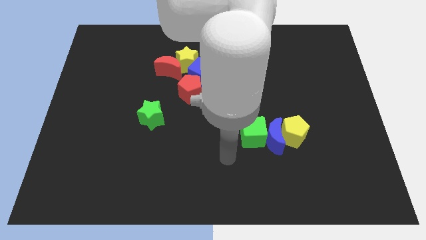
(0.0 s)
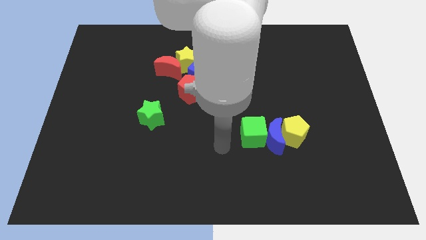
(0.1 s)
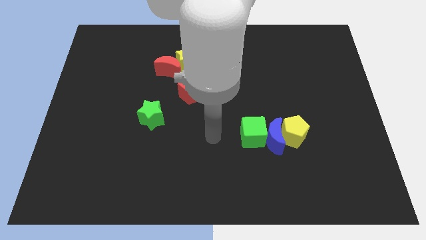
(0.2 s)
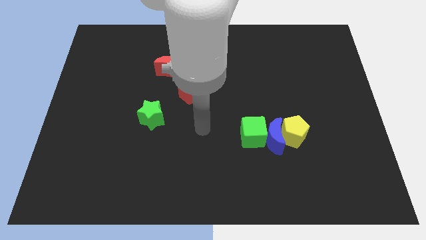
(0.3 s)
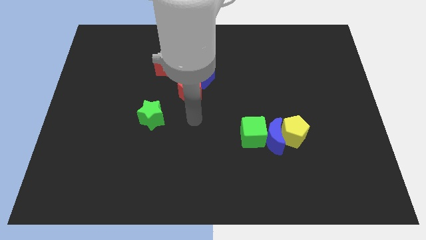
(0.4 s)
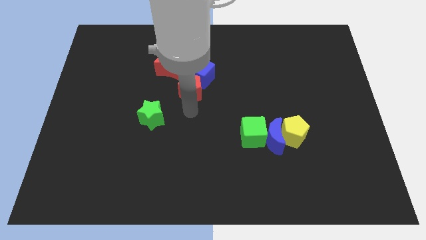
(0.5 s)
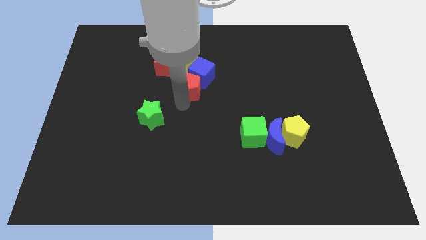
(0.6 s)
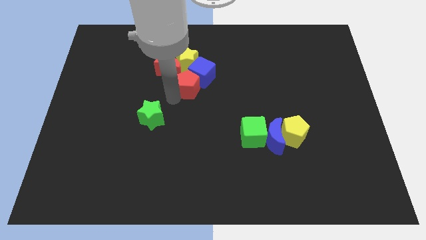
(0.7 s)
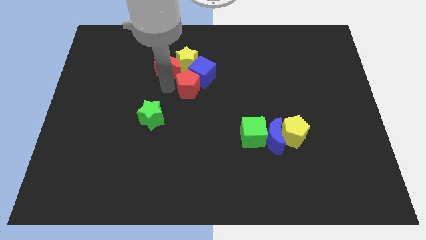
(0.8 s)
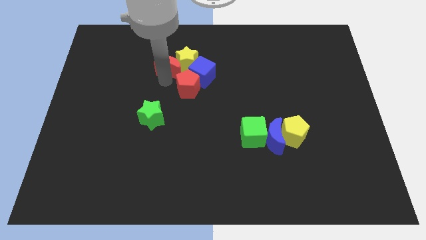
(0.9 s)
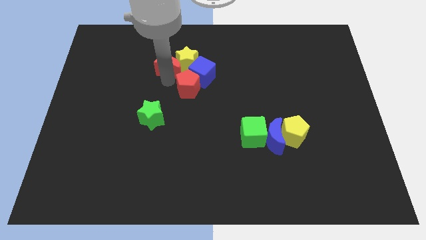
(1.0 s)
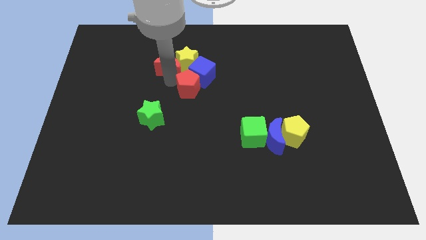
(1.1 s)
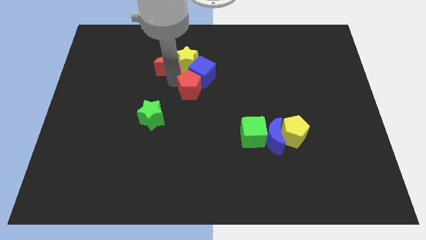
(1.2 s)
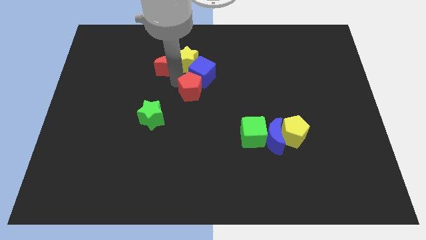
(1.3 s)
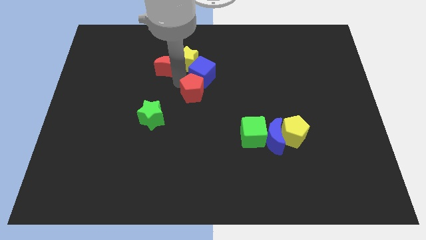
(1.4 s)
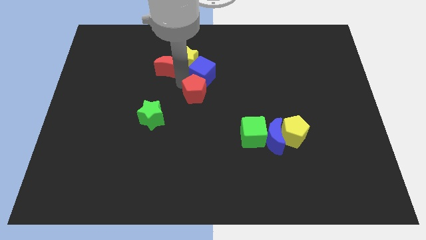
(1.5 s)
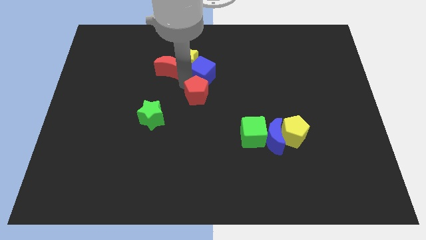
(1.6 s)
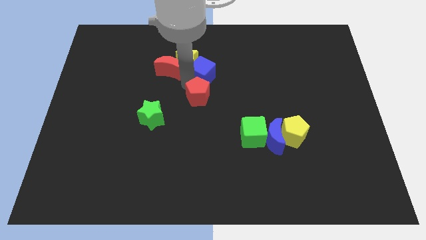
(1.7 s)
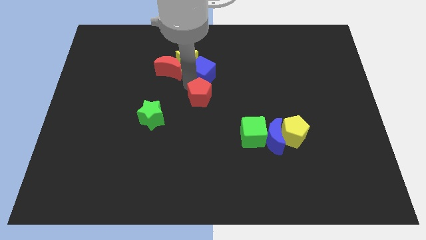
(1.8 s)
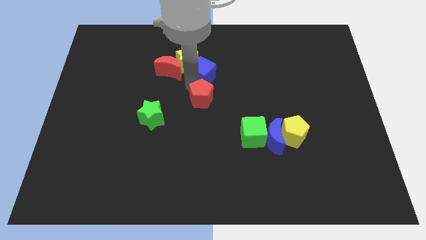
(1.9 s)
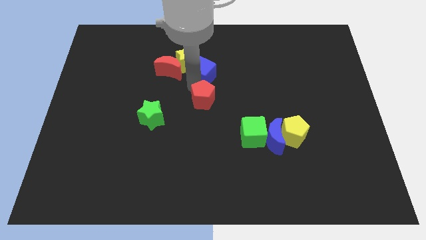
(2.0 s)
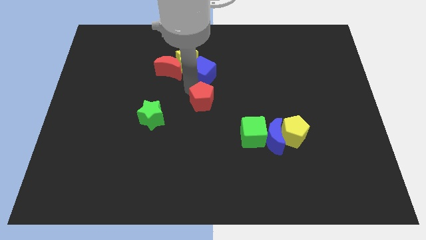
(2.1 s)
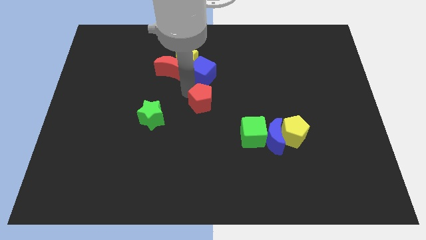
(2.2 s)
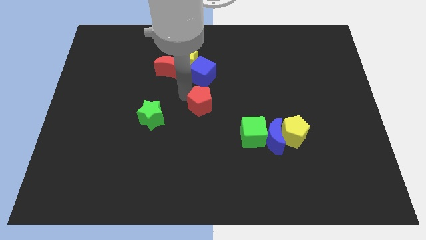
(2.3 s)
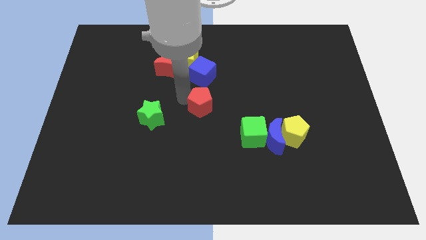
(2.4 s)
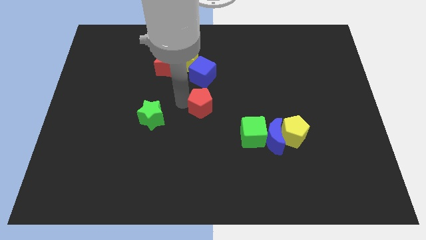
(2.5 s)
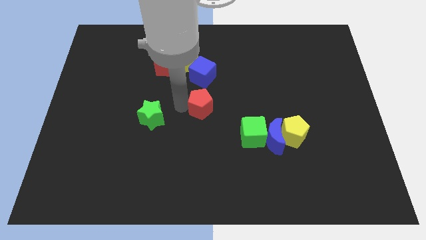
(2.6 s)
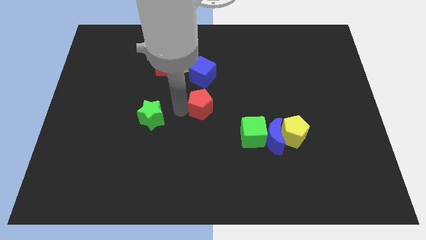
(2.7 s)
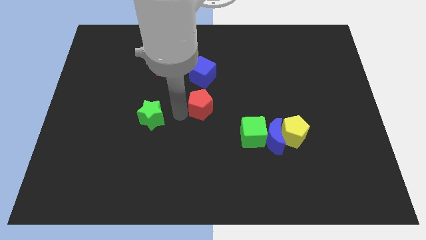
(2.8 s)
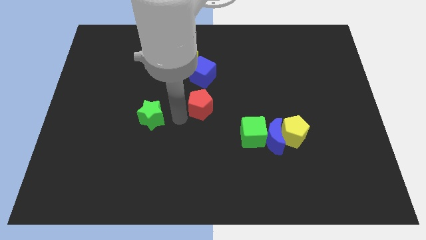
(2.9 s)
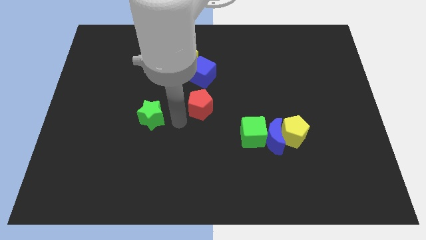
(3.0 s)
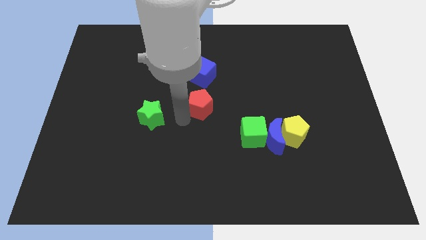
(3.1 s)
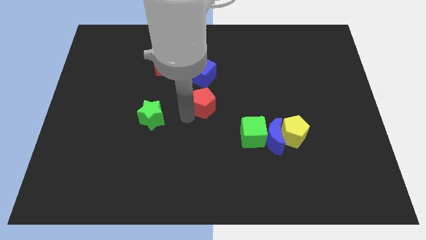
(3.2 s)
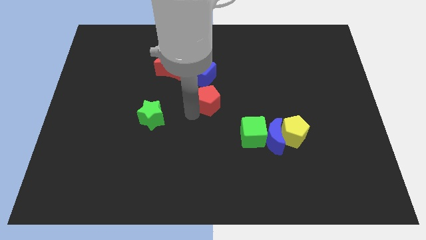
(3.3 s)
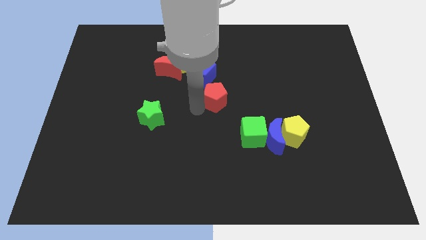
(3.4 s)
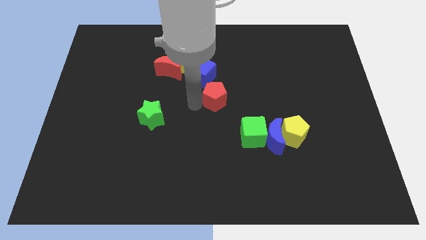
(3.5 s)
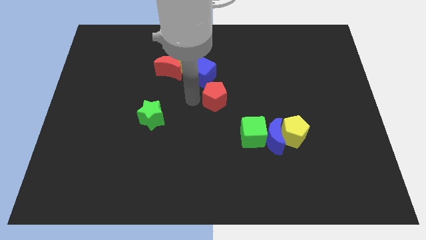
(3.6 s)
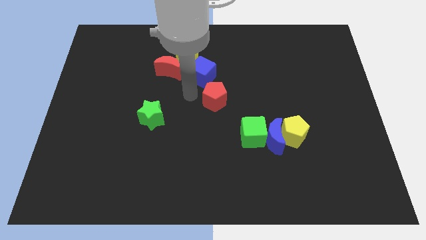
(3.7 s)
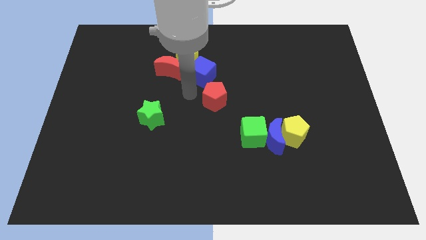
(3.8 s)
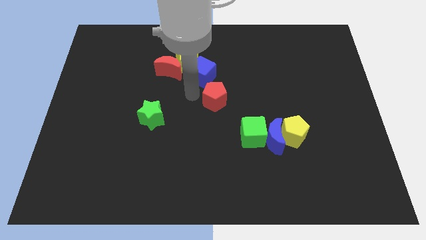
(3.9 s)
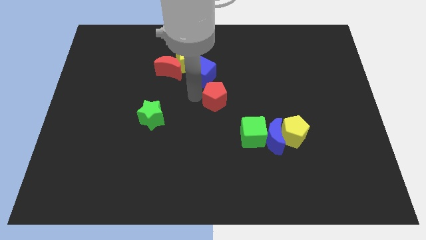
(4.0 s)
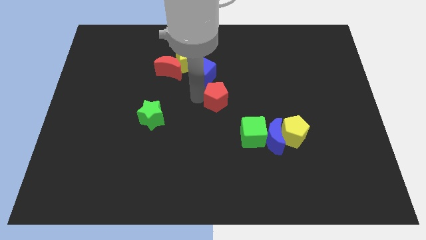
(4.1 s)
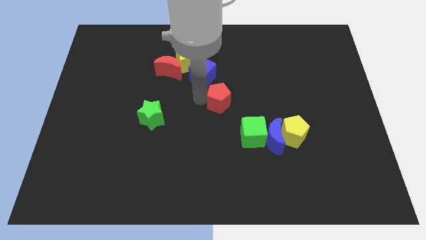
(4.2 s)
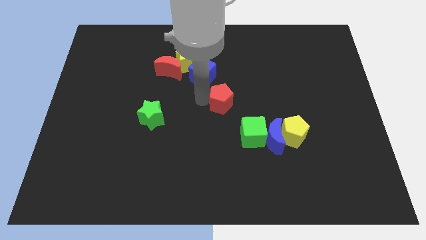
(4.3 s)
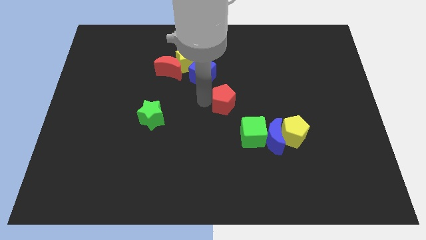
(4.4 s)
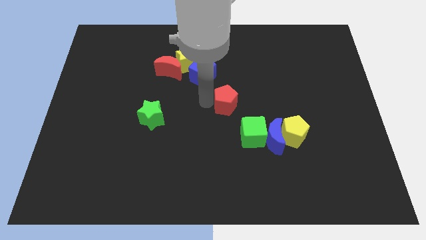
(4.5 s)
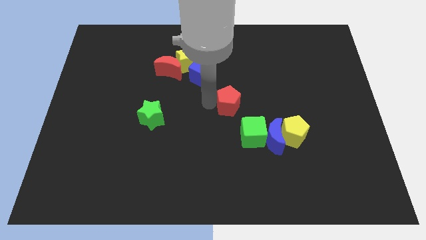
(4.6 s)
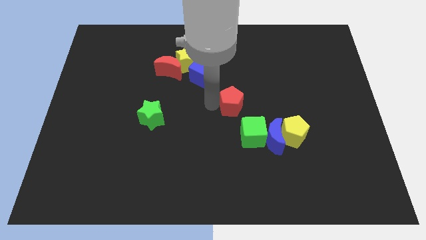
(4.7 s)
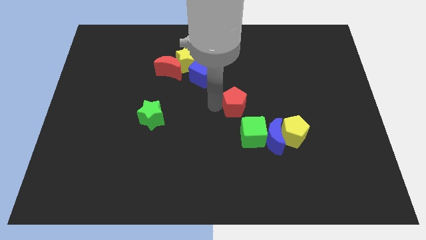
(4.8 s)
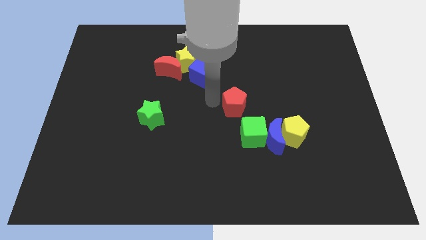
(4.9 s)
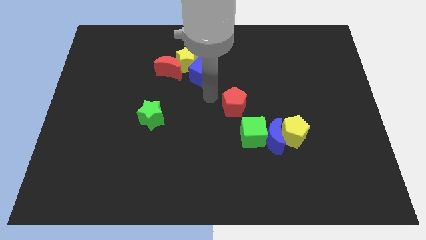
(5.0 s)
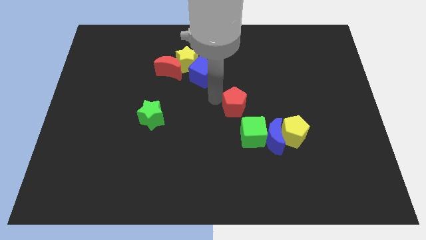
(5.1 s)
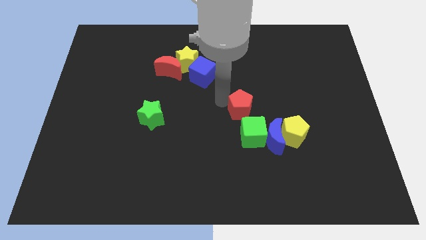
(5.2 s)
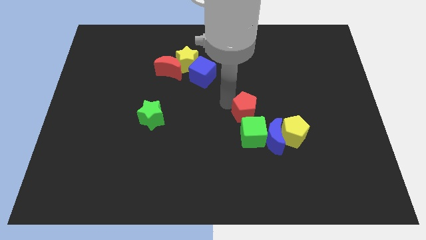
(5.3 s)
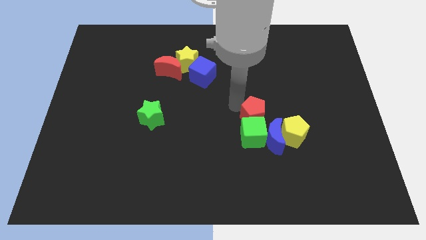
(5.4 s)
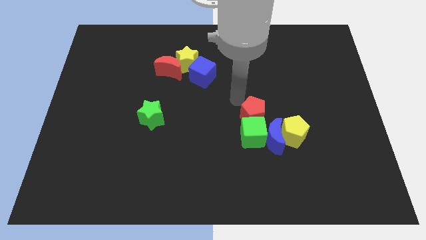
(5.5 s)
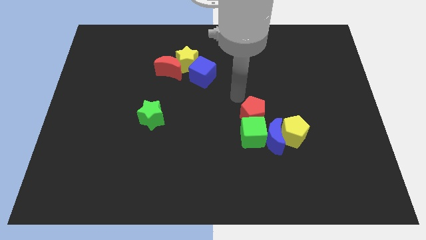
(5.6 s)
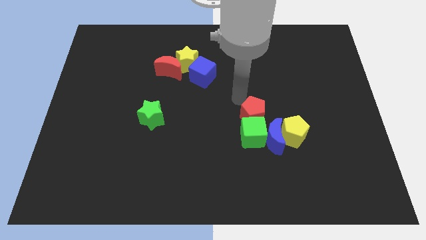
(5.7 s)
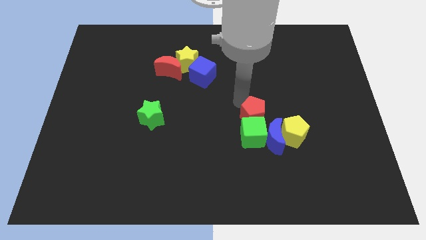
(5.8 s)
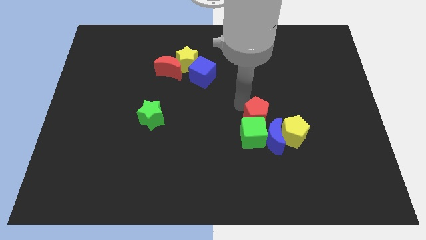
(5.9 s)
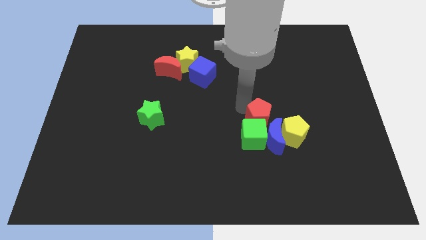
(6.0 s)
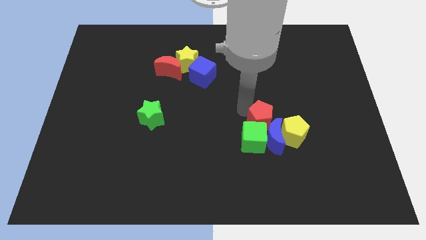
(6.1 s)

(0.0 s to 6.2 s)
move the red pentagon next to the blue moon

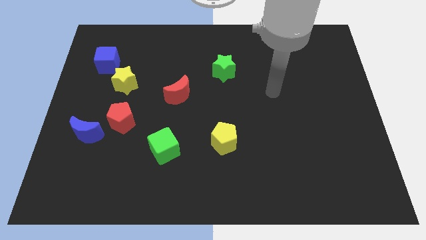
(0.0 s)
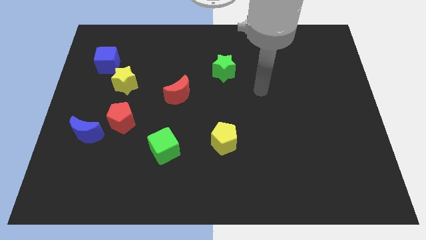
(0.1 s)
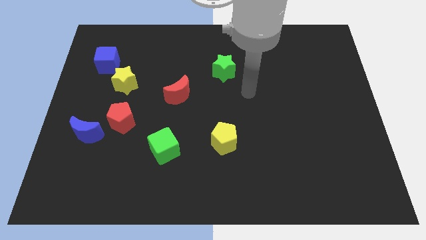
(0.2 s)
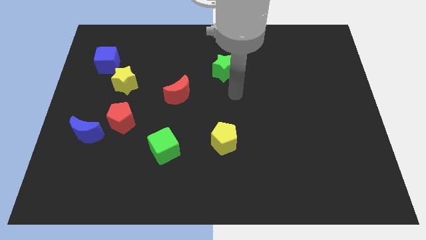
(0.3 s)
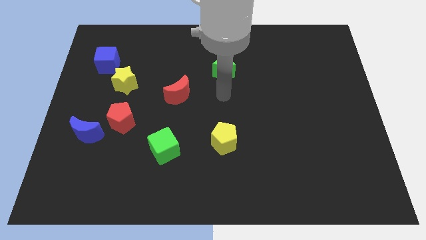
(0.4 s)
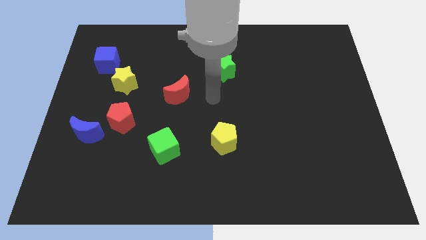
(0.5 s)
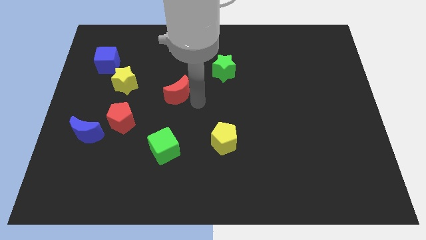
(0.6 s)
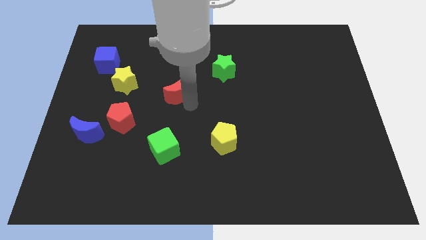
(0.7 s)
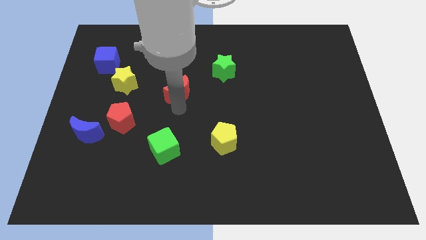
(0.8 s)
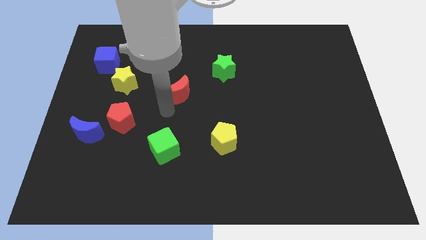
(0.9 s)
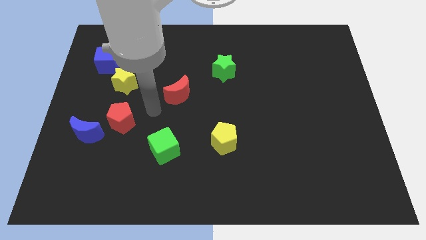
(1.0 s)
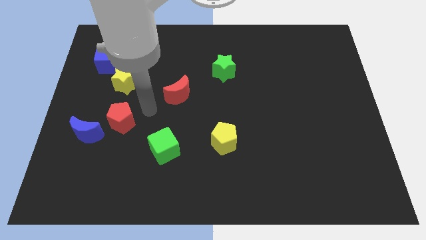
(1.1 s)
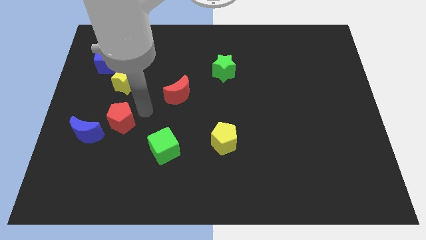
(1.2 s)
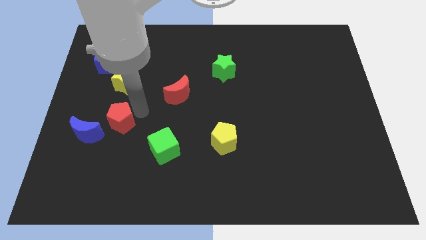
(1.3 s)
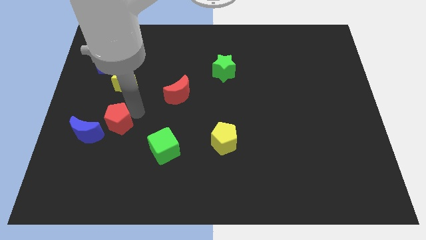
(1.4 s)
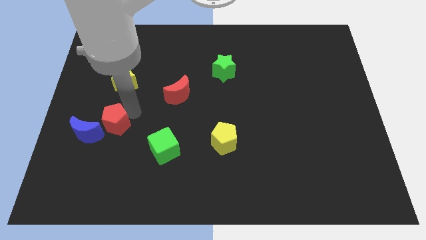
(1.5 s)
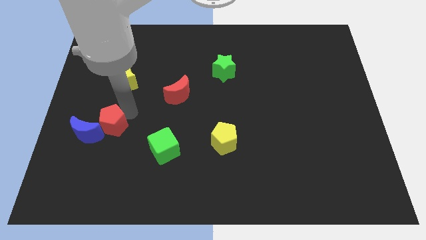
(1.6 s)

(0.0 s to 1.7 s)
slide the red pentagon to the blue moon

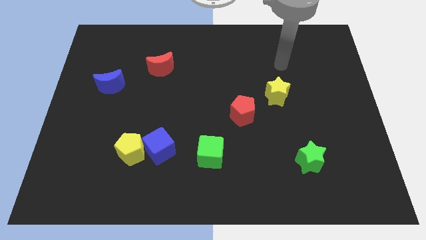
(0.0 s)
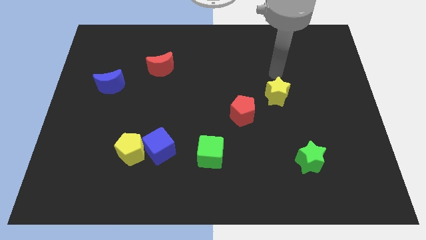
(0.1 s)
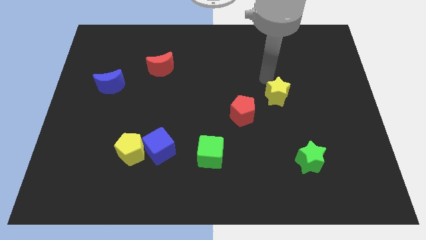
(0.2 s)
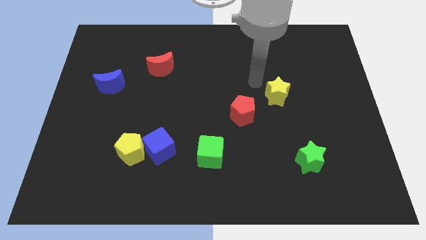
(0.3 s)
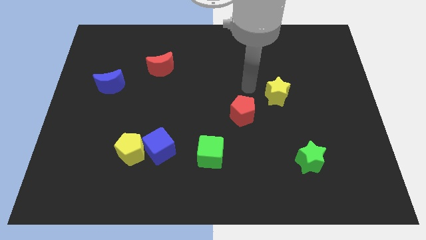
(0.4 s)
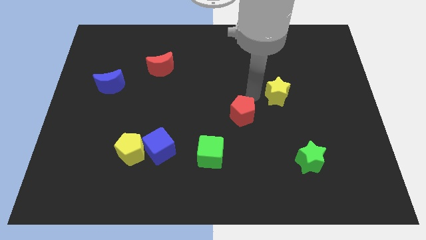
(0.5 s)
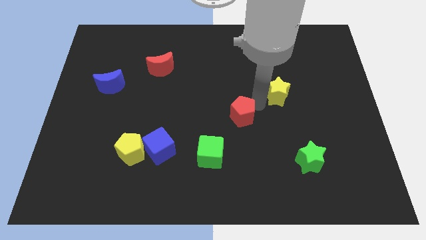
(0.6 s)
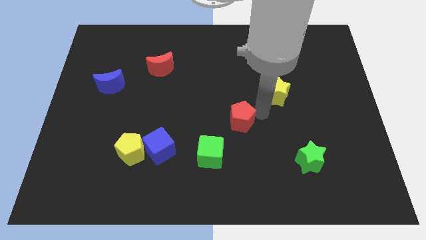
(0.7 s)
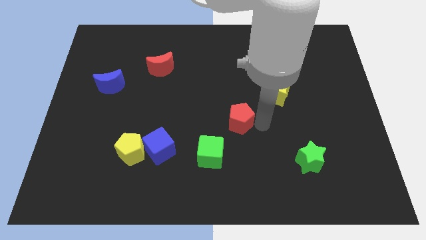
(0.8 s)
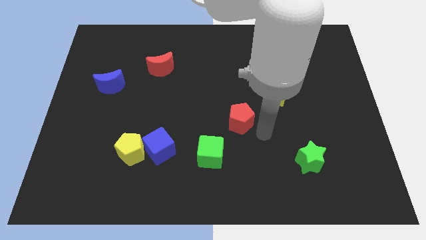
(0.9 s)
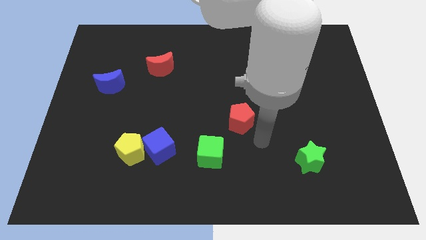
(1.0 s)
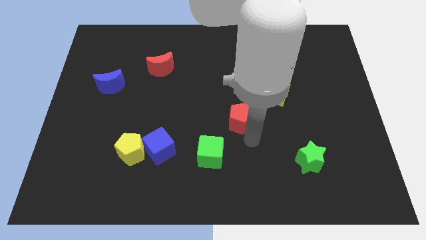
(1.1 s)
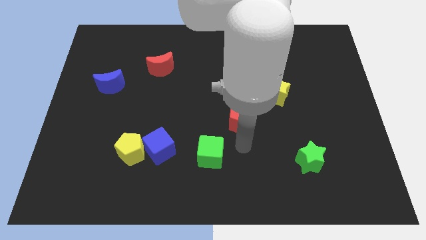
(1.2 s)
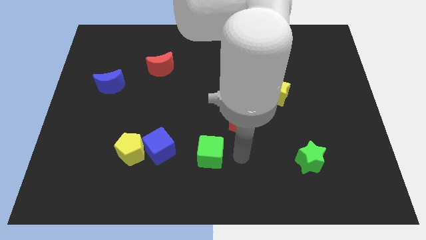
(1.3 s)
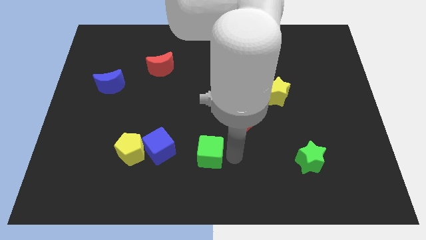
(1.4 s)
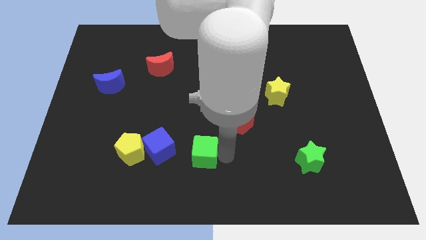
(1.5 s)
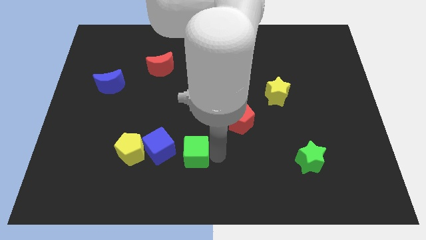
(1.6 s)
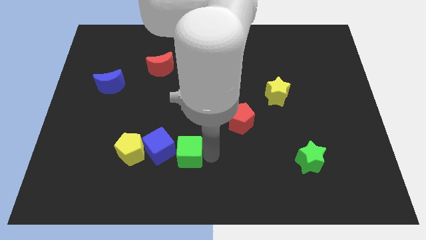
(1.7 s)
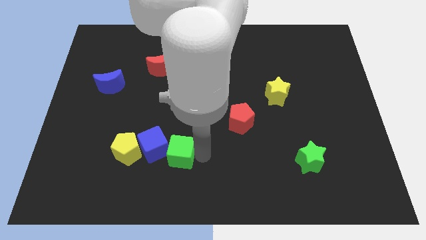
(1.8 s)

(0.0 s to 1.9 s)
slide the green cube towards the blue cube
